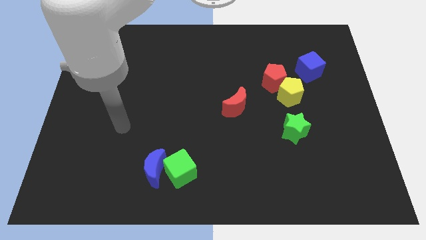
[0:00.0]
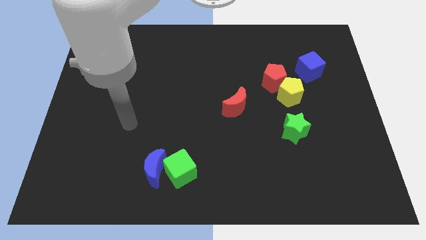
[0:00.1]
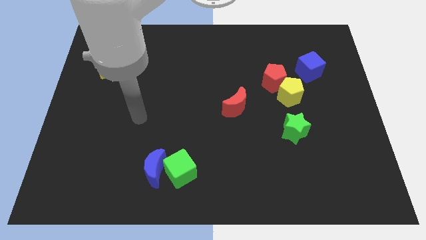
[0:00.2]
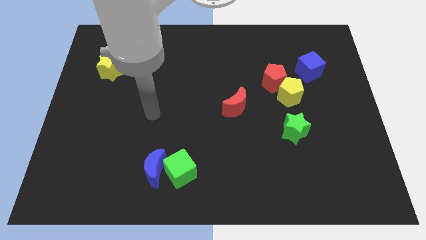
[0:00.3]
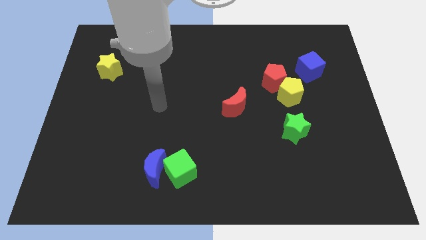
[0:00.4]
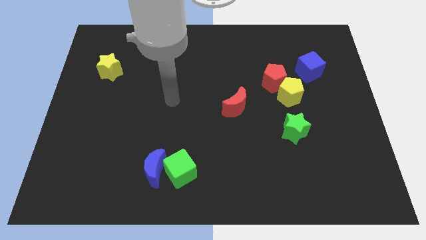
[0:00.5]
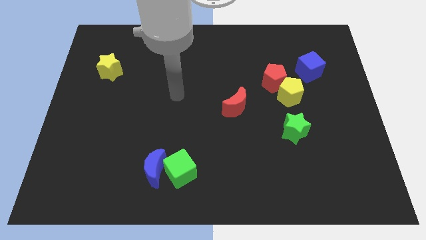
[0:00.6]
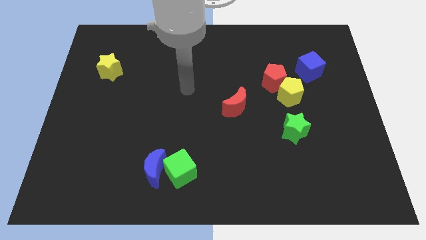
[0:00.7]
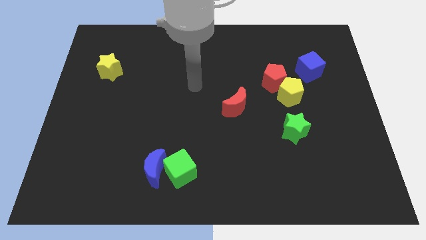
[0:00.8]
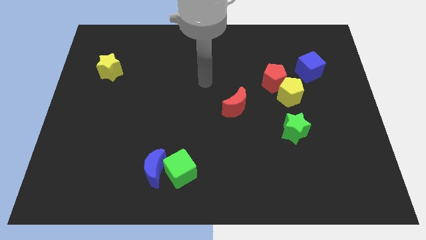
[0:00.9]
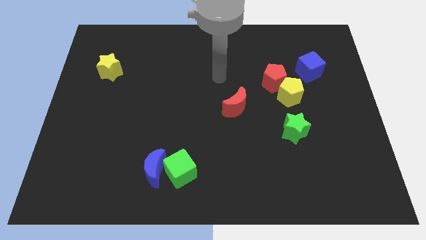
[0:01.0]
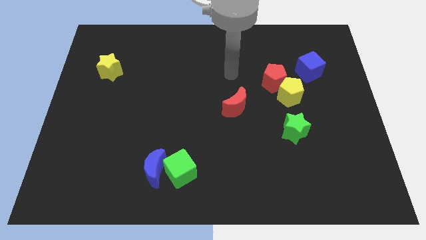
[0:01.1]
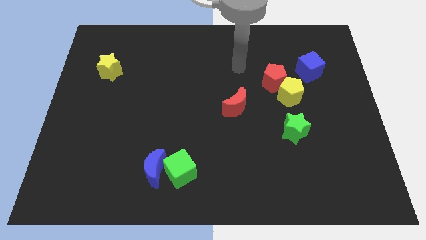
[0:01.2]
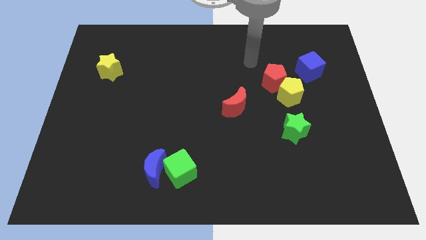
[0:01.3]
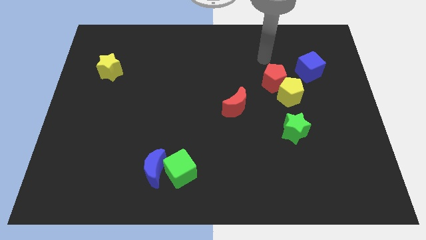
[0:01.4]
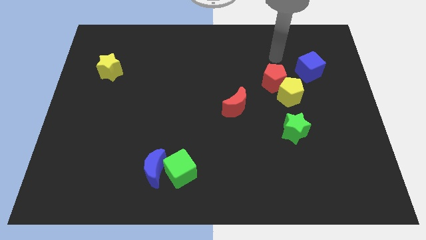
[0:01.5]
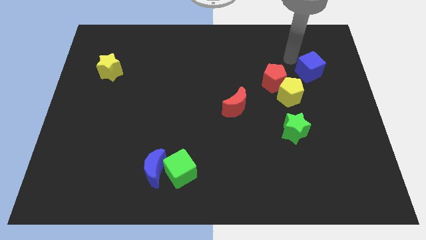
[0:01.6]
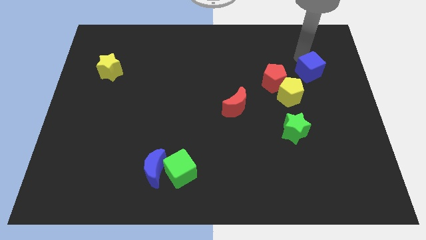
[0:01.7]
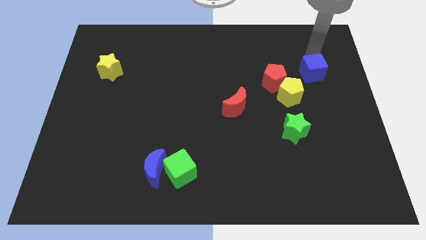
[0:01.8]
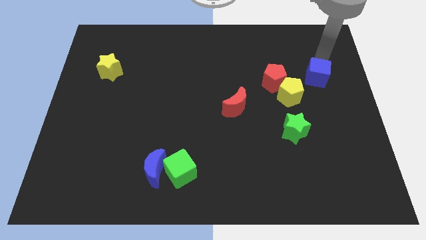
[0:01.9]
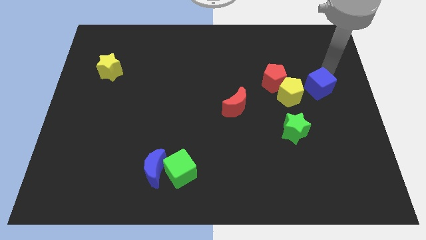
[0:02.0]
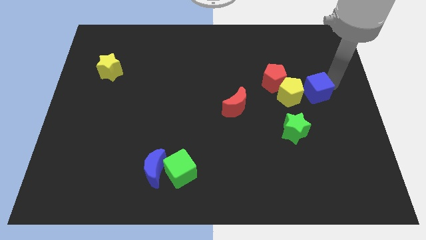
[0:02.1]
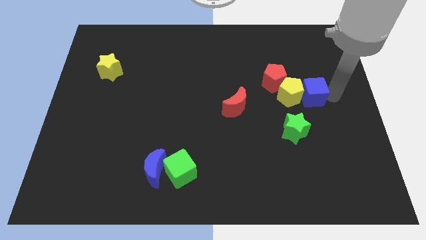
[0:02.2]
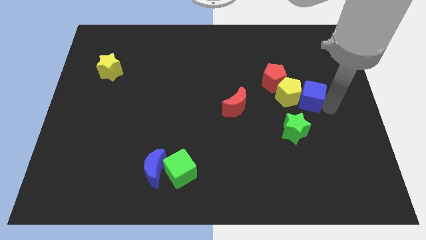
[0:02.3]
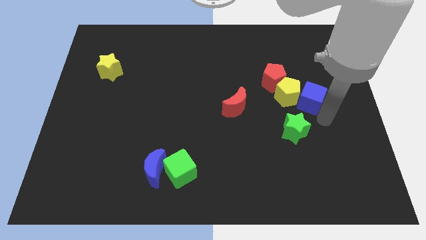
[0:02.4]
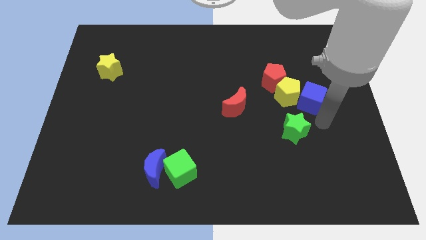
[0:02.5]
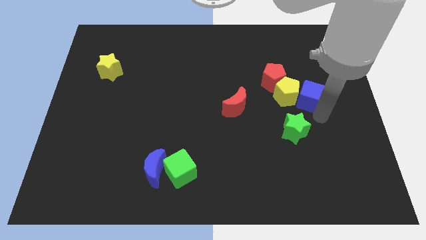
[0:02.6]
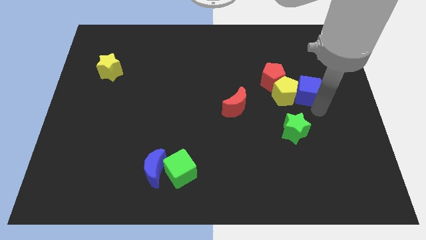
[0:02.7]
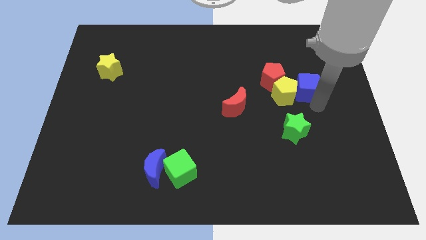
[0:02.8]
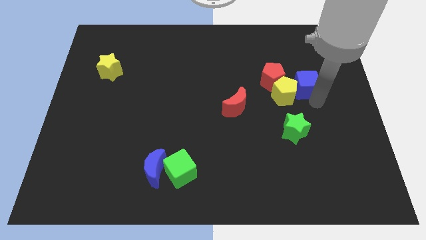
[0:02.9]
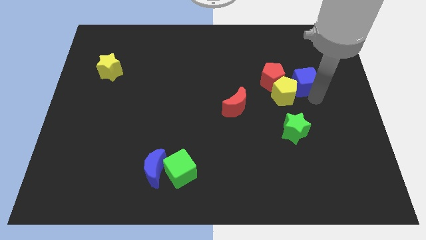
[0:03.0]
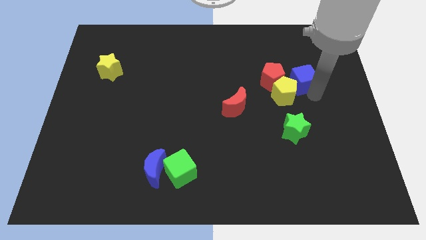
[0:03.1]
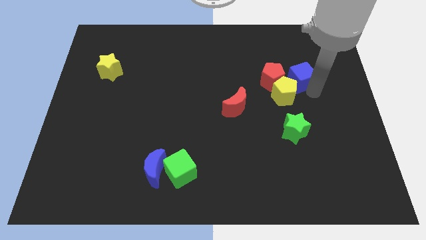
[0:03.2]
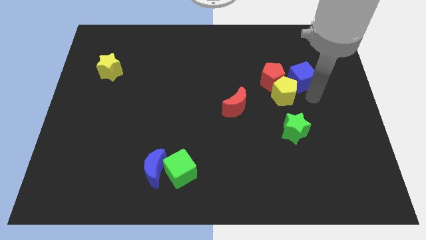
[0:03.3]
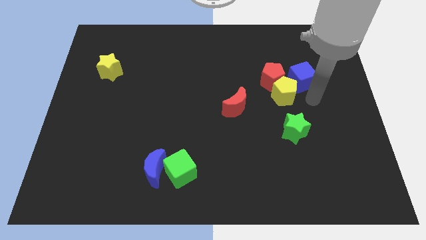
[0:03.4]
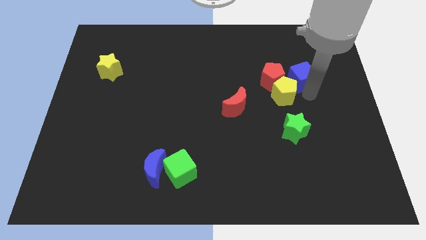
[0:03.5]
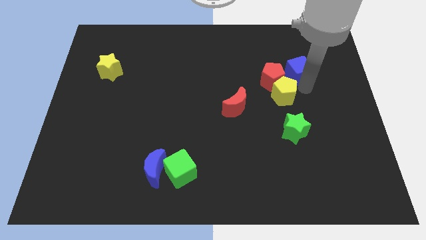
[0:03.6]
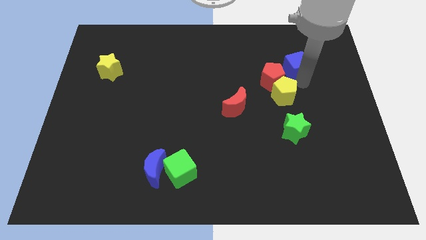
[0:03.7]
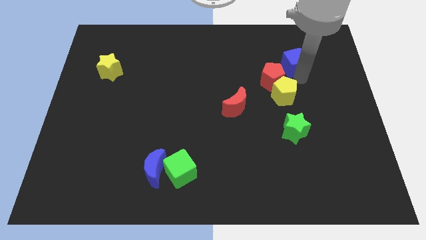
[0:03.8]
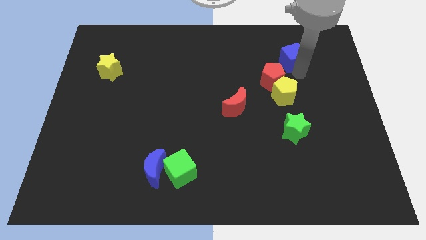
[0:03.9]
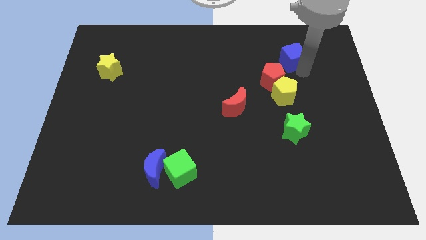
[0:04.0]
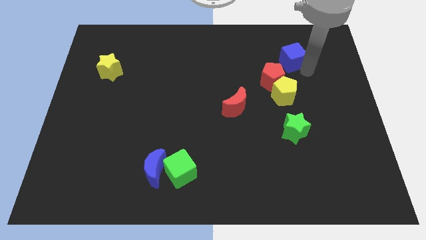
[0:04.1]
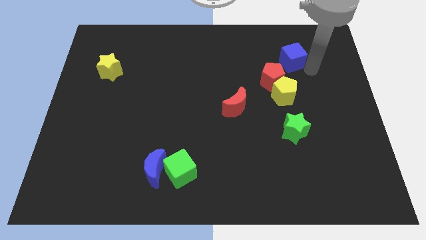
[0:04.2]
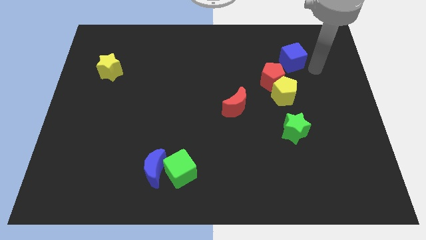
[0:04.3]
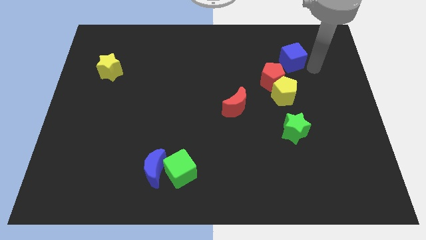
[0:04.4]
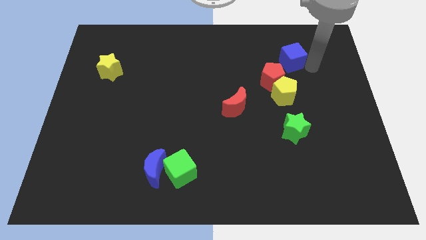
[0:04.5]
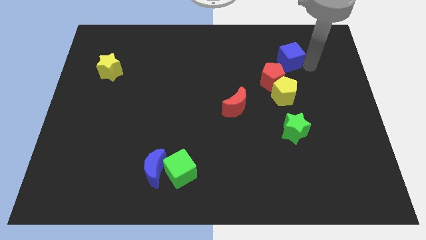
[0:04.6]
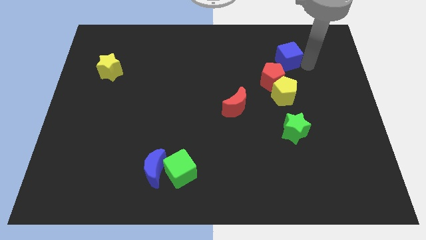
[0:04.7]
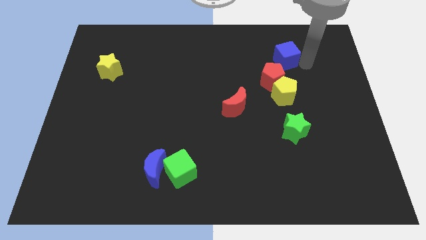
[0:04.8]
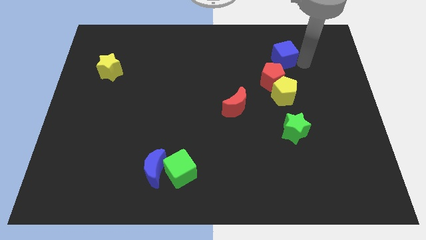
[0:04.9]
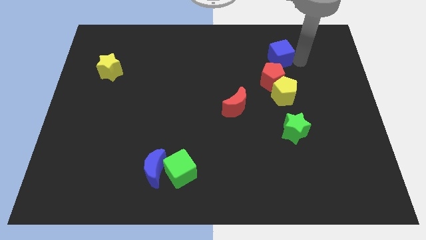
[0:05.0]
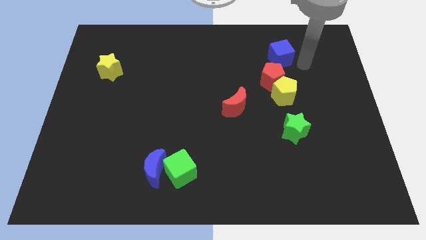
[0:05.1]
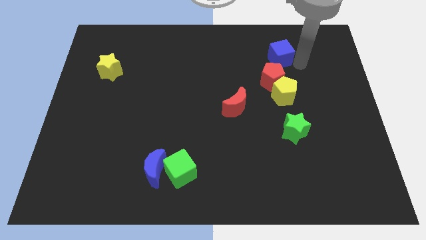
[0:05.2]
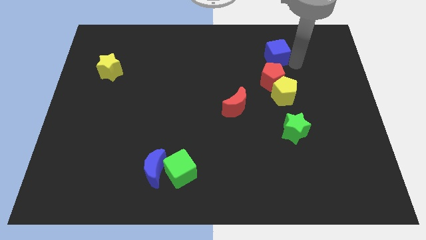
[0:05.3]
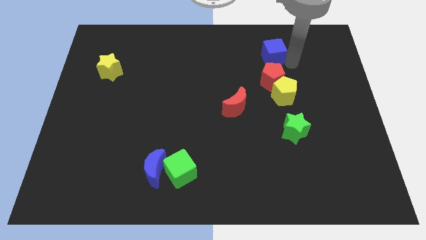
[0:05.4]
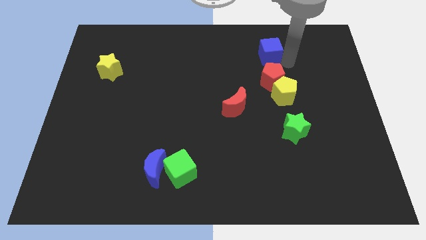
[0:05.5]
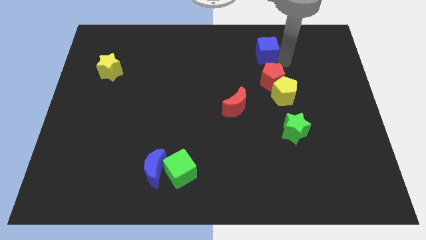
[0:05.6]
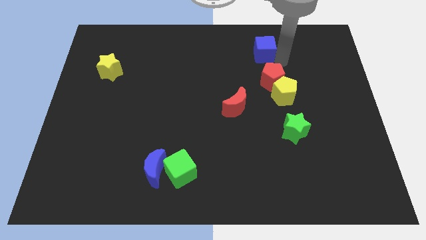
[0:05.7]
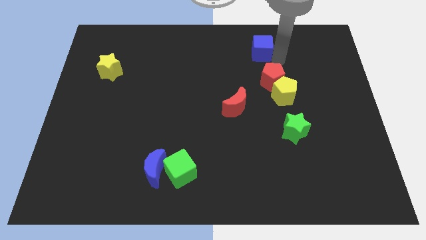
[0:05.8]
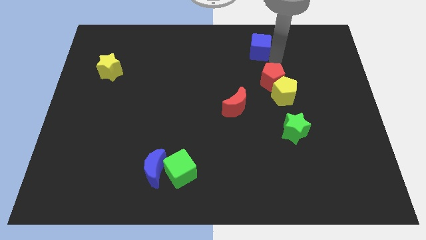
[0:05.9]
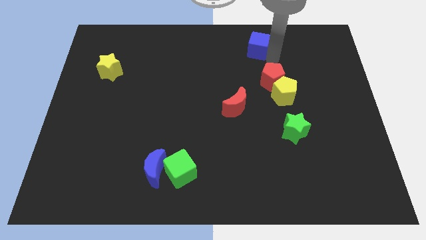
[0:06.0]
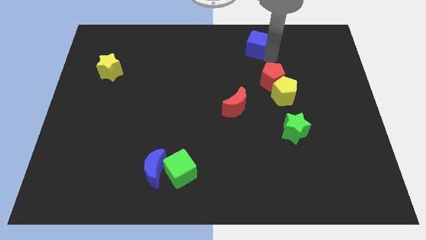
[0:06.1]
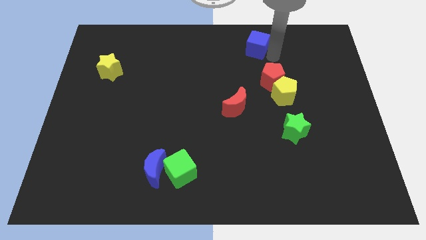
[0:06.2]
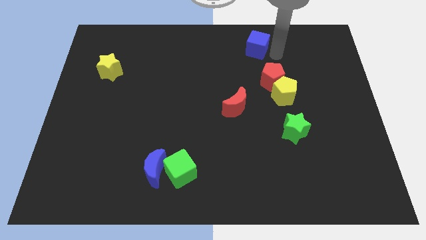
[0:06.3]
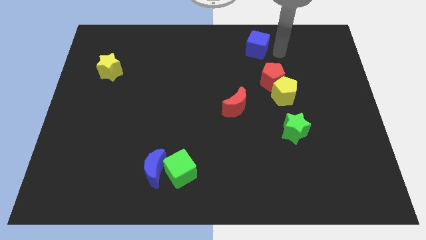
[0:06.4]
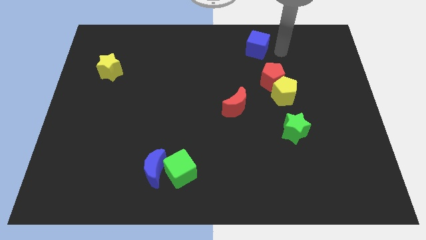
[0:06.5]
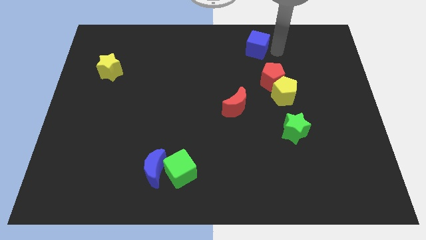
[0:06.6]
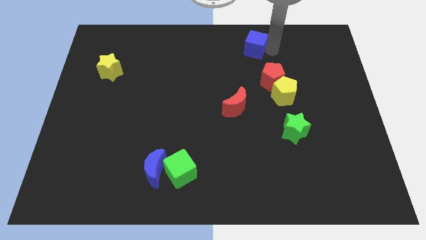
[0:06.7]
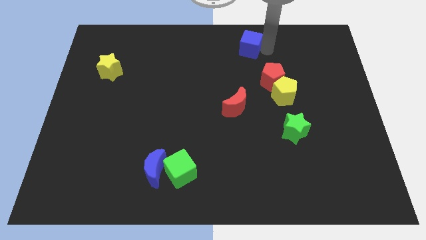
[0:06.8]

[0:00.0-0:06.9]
slide the blue cube to the top
